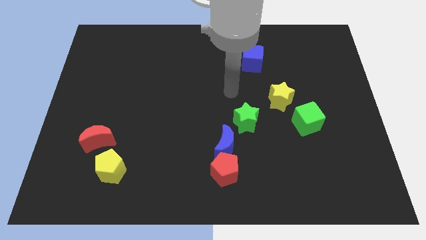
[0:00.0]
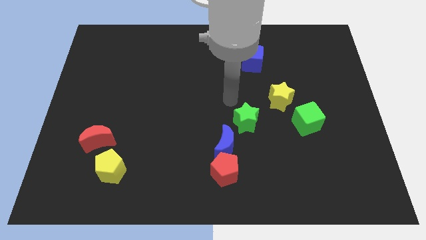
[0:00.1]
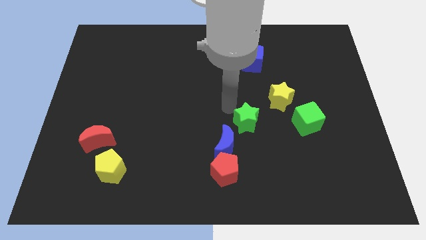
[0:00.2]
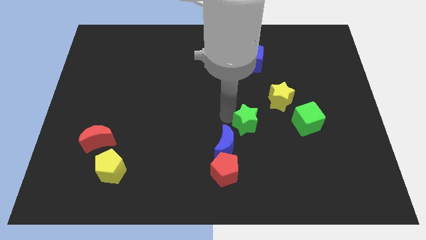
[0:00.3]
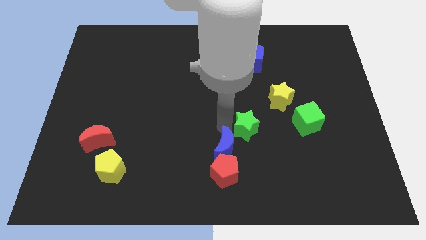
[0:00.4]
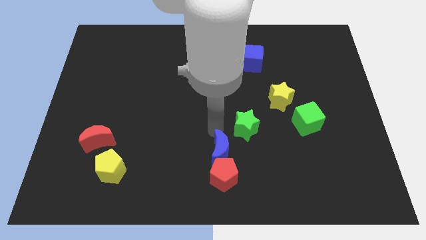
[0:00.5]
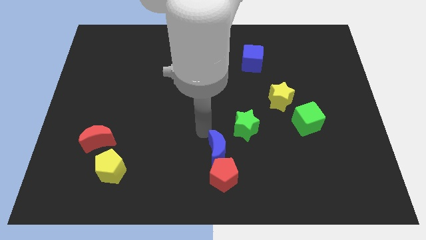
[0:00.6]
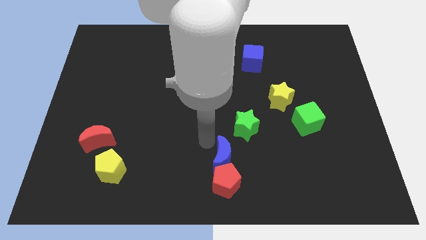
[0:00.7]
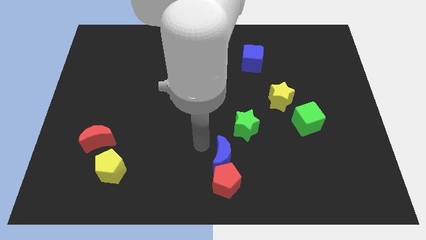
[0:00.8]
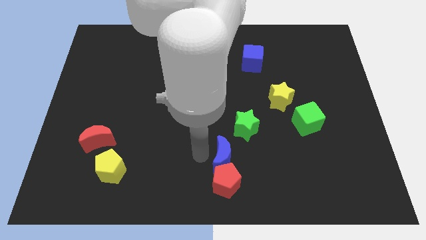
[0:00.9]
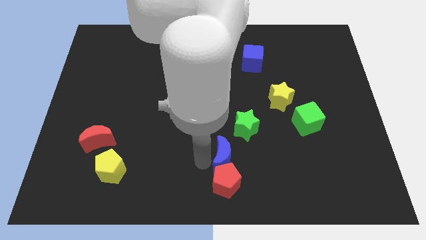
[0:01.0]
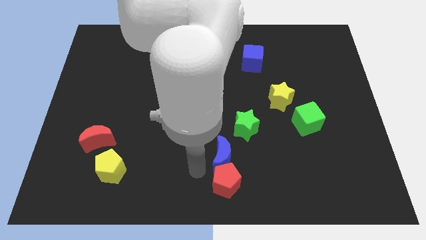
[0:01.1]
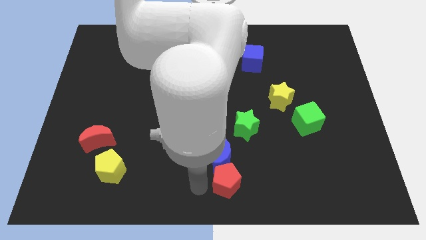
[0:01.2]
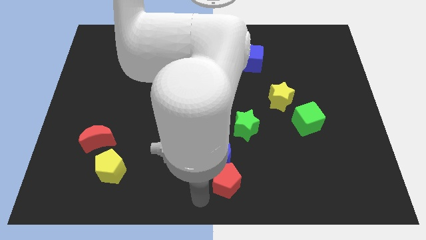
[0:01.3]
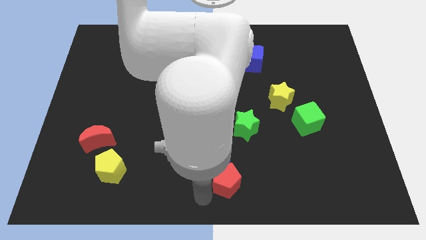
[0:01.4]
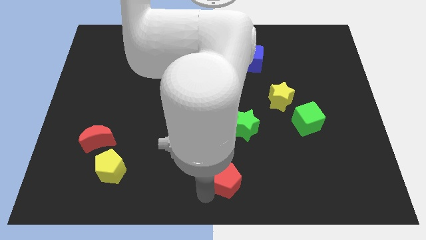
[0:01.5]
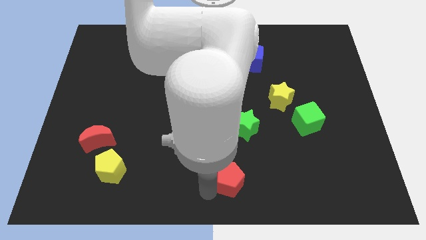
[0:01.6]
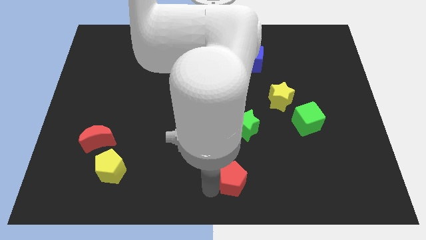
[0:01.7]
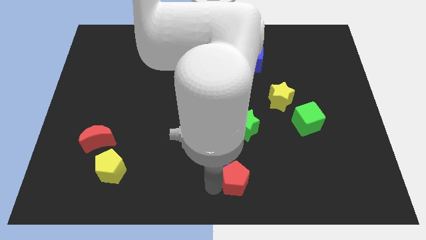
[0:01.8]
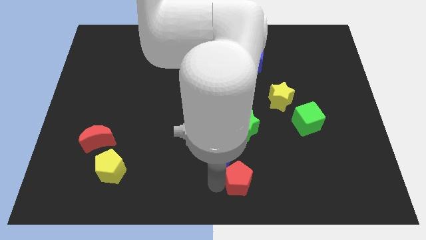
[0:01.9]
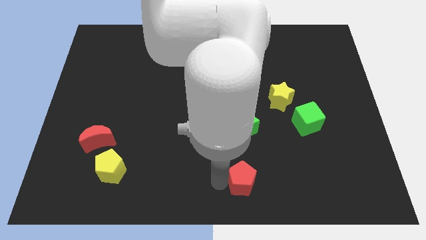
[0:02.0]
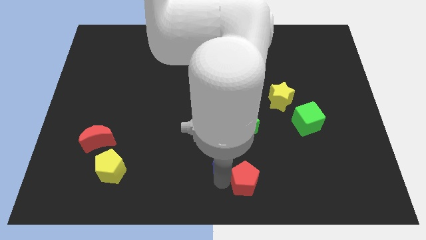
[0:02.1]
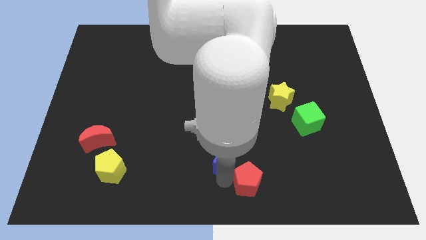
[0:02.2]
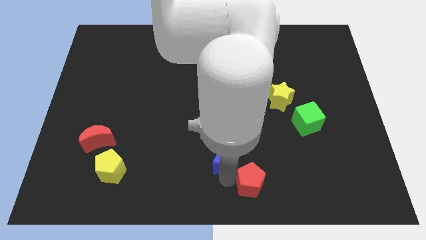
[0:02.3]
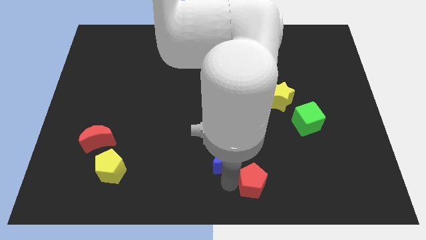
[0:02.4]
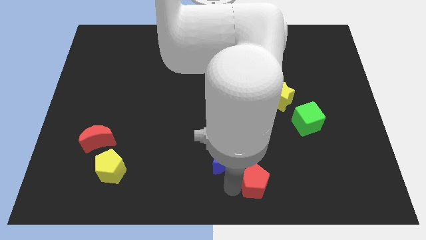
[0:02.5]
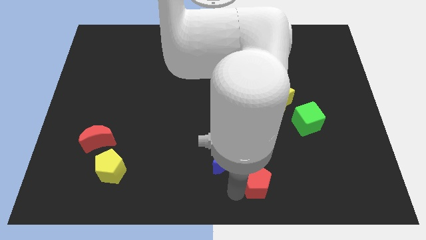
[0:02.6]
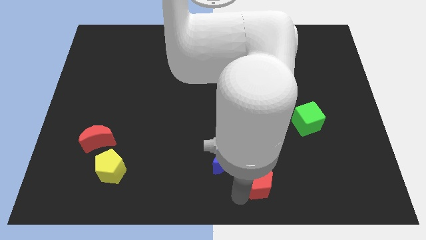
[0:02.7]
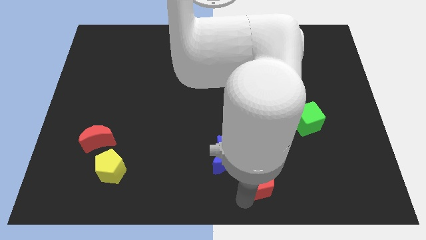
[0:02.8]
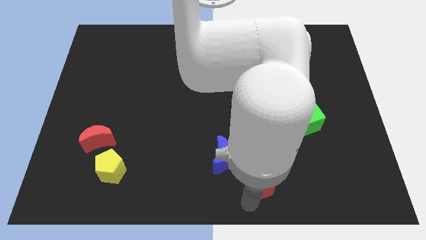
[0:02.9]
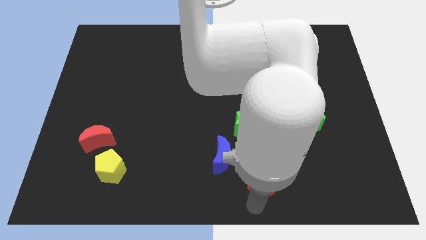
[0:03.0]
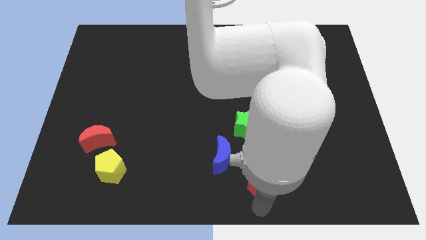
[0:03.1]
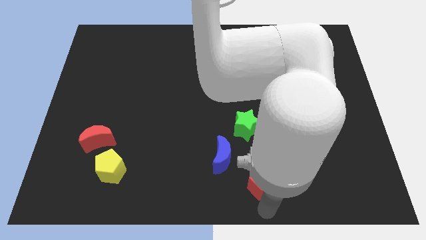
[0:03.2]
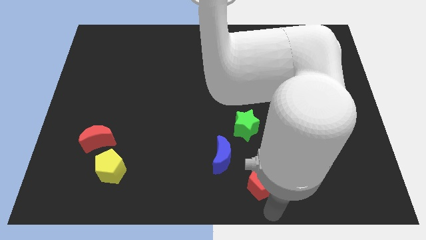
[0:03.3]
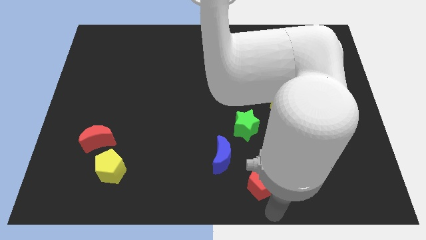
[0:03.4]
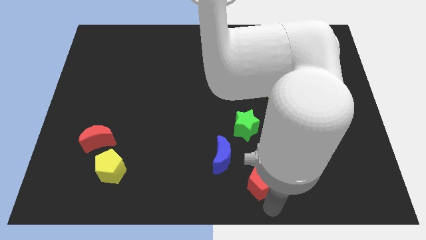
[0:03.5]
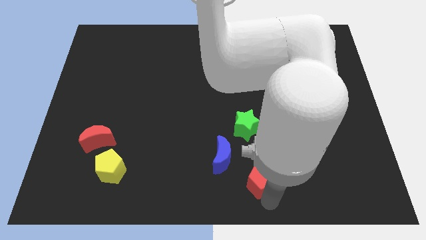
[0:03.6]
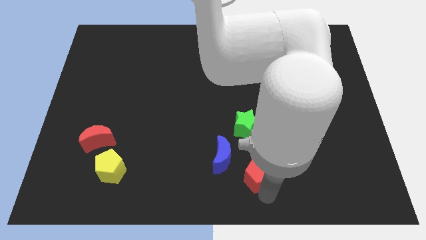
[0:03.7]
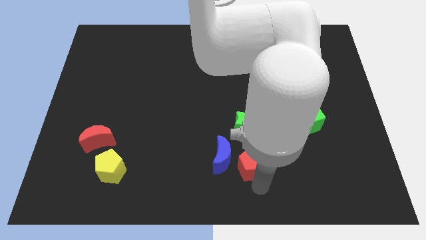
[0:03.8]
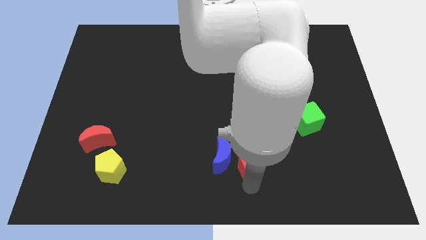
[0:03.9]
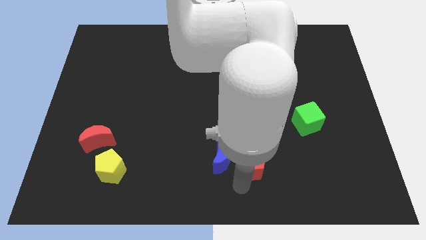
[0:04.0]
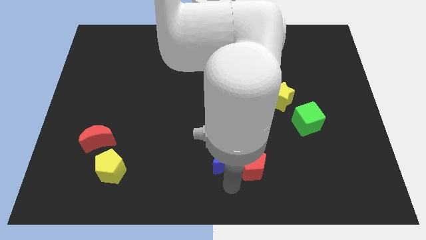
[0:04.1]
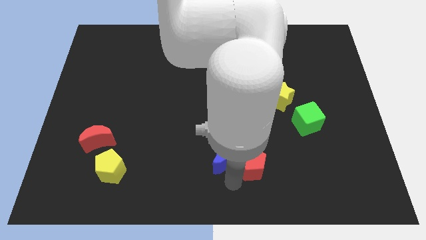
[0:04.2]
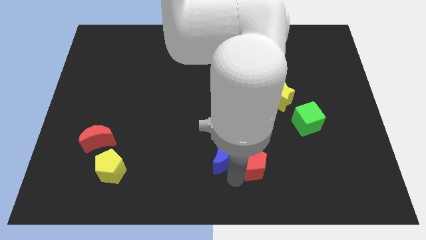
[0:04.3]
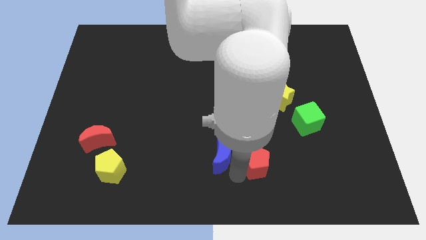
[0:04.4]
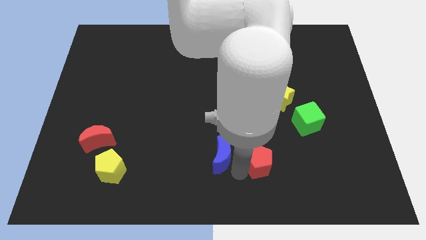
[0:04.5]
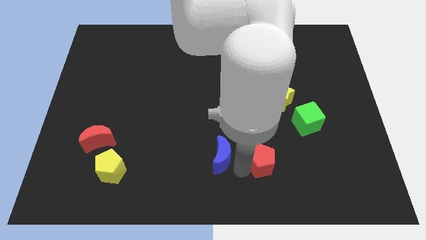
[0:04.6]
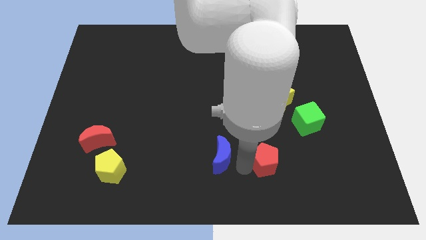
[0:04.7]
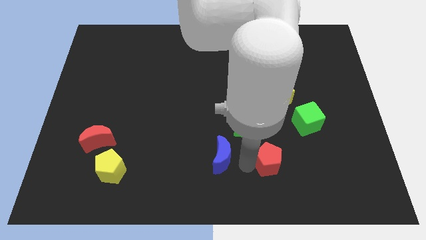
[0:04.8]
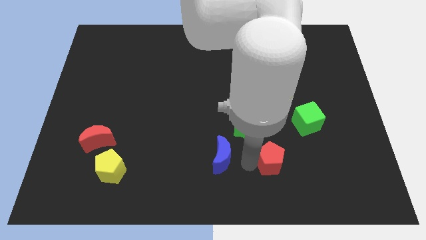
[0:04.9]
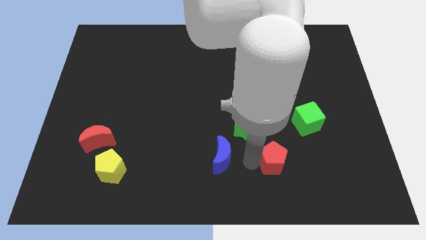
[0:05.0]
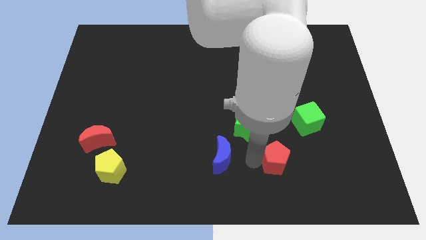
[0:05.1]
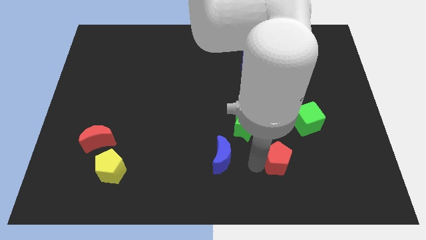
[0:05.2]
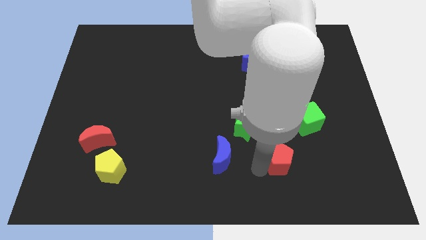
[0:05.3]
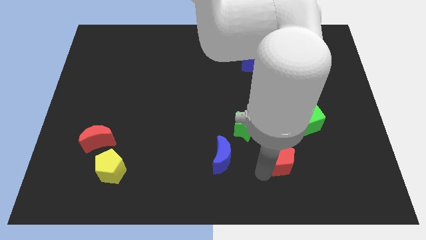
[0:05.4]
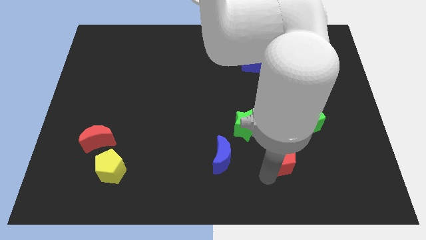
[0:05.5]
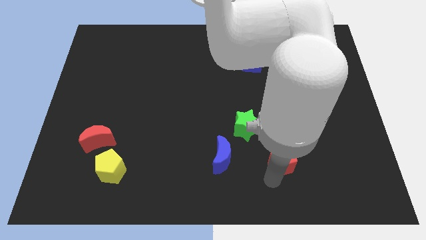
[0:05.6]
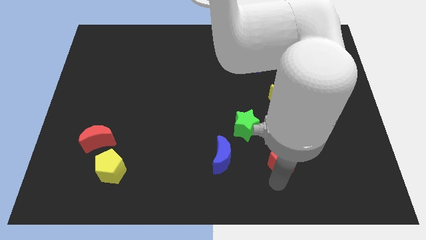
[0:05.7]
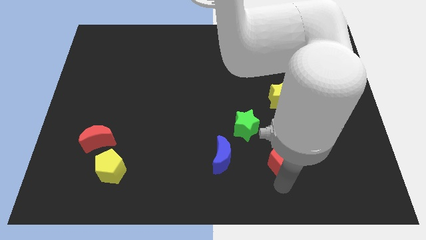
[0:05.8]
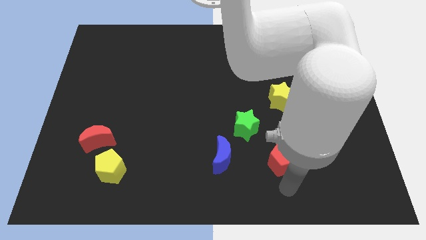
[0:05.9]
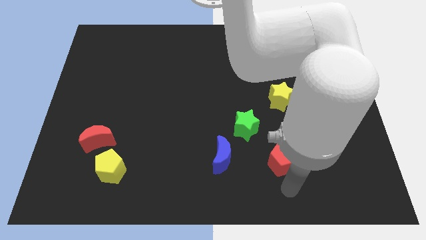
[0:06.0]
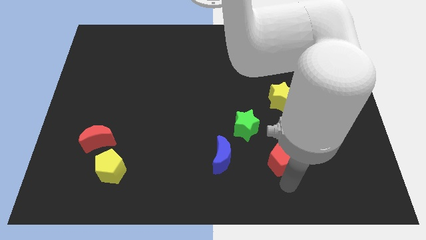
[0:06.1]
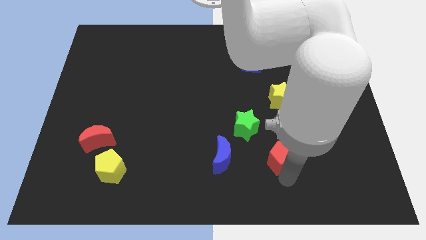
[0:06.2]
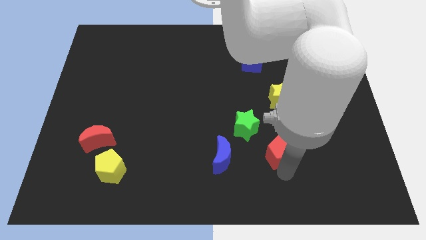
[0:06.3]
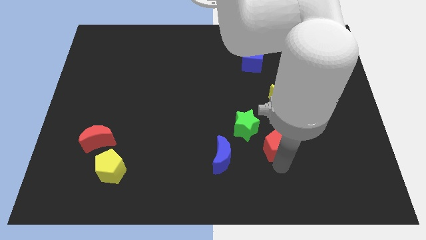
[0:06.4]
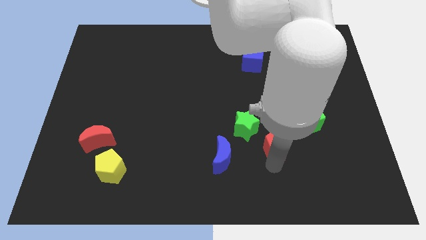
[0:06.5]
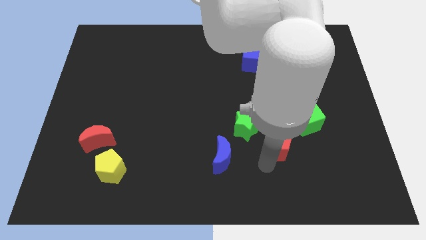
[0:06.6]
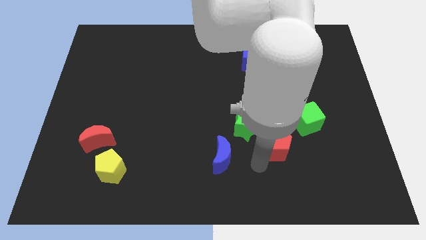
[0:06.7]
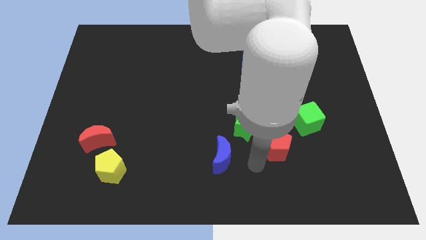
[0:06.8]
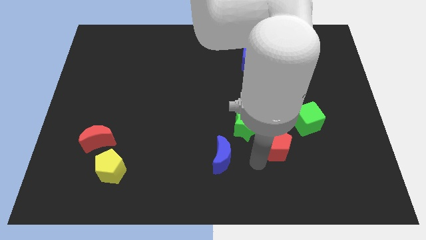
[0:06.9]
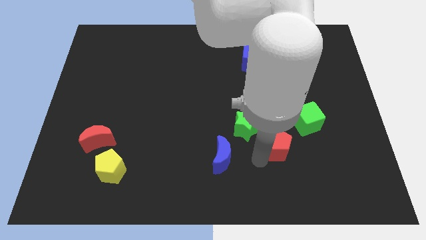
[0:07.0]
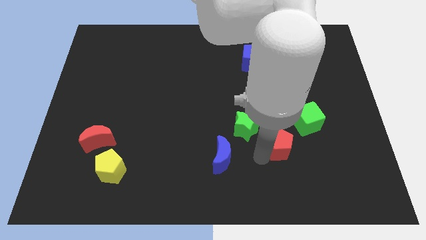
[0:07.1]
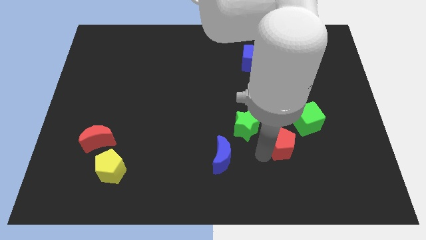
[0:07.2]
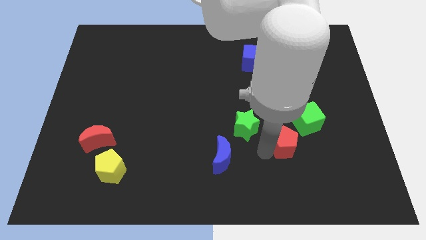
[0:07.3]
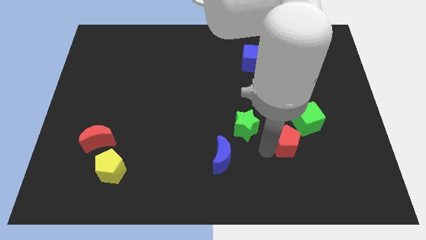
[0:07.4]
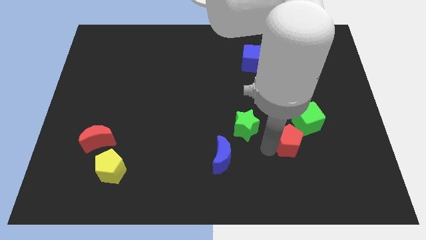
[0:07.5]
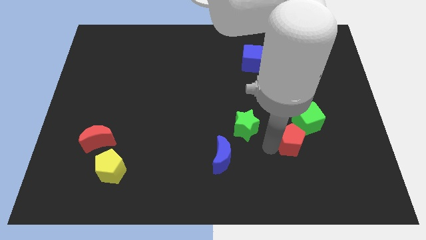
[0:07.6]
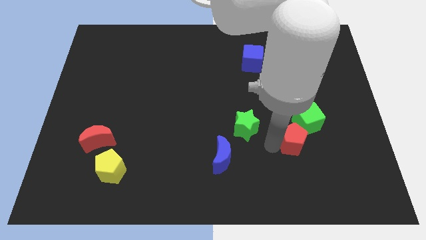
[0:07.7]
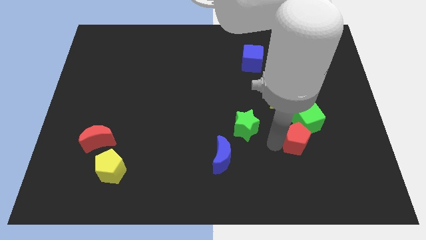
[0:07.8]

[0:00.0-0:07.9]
put the red pentagon towards the green cube
